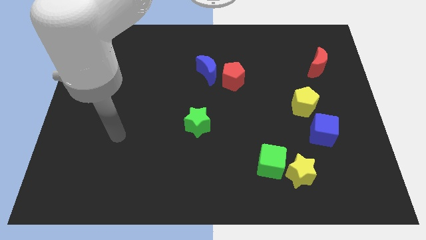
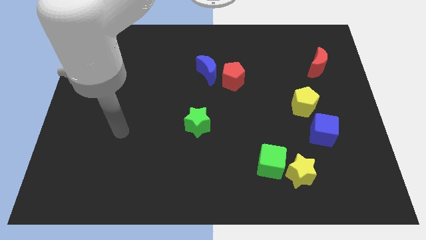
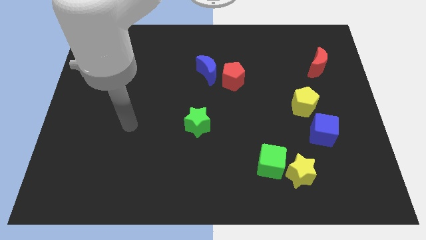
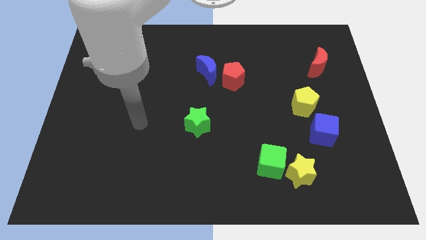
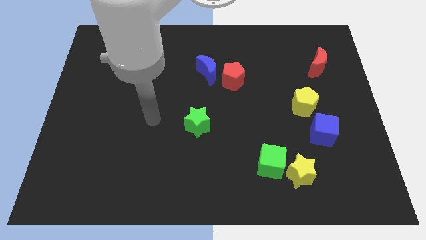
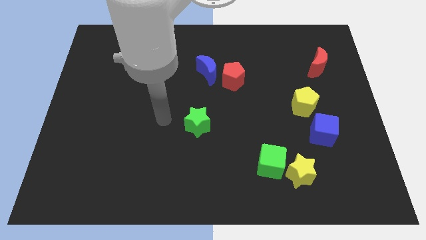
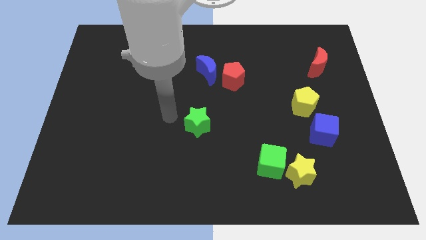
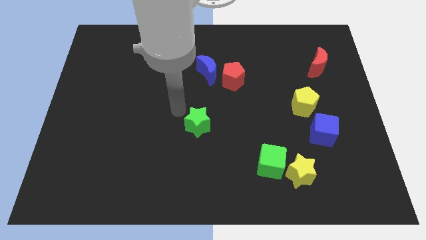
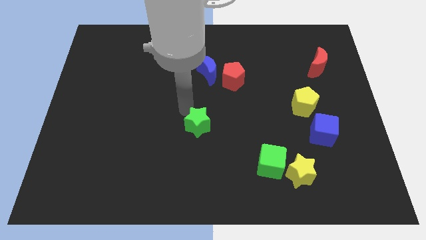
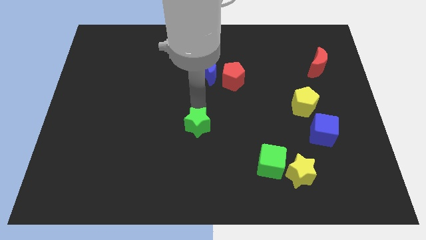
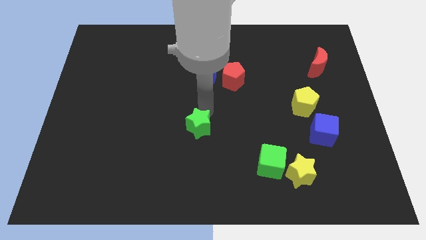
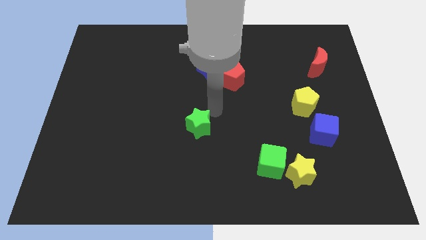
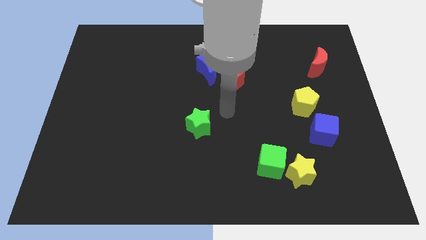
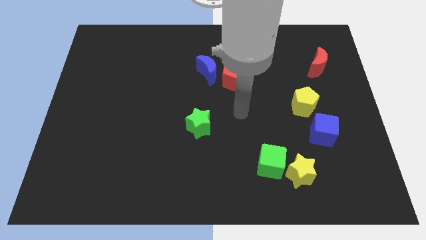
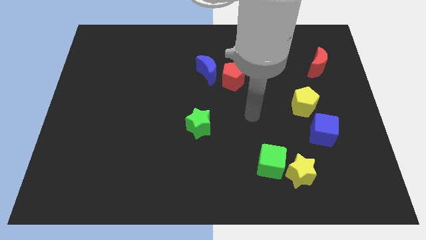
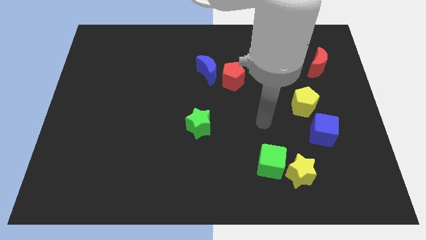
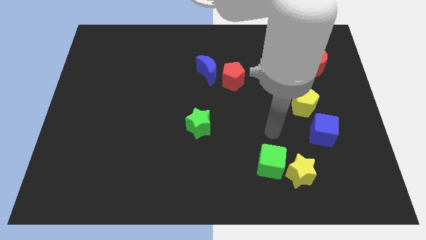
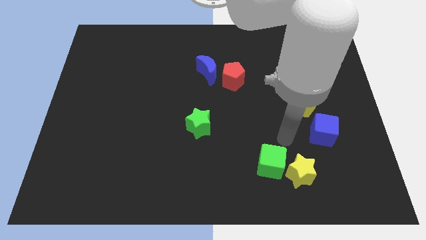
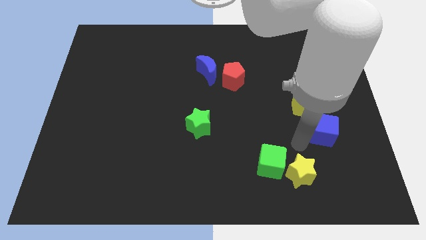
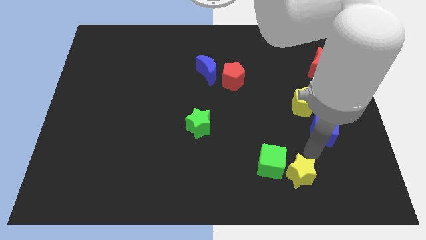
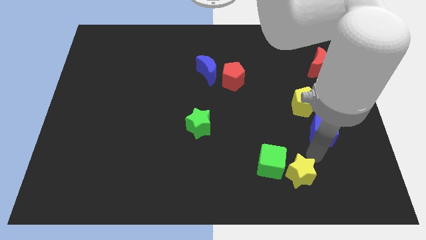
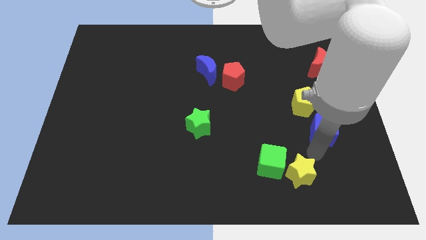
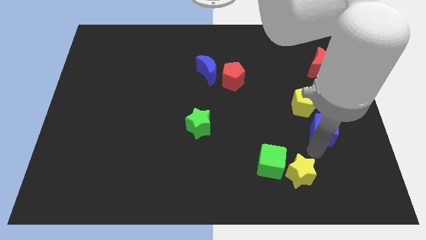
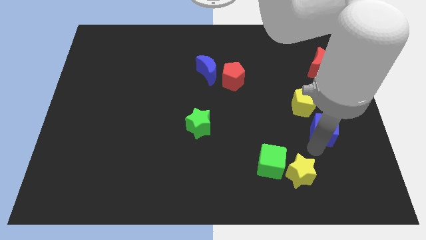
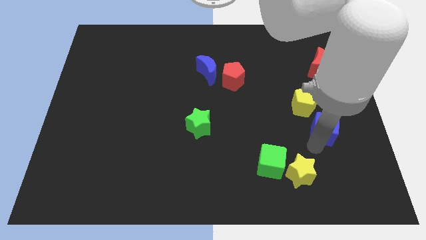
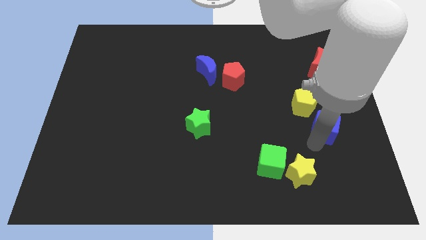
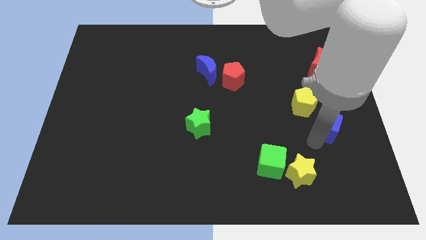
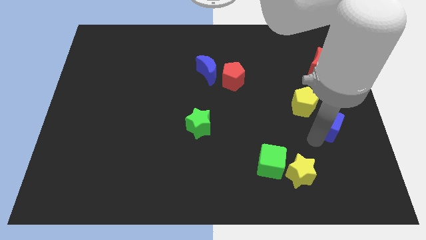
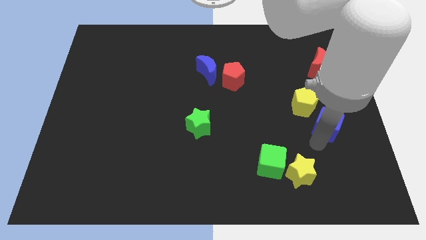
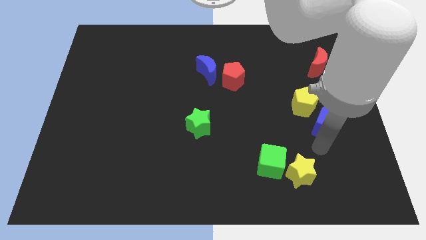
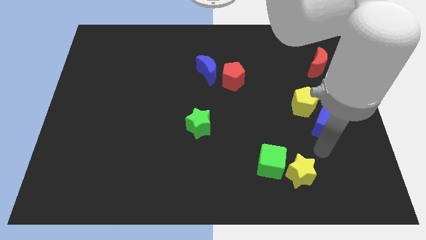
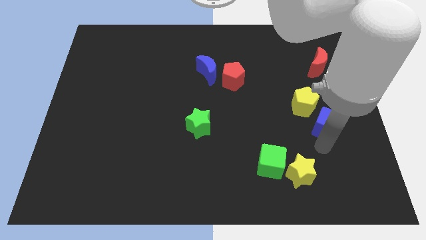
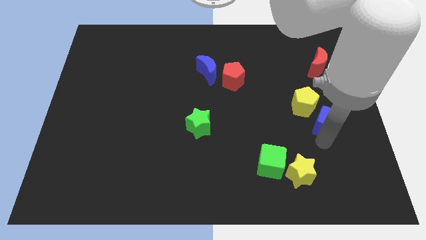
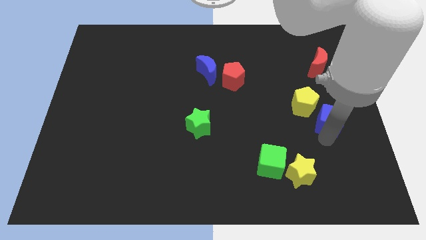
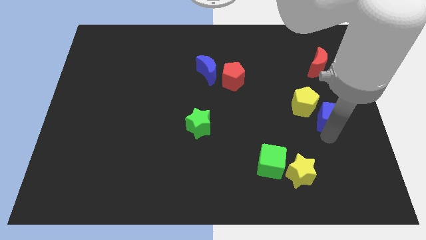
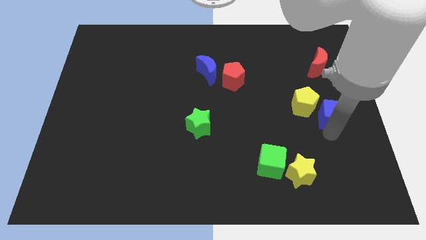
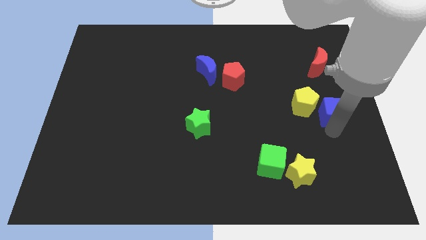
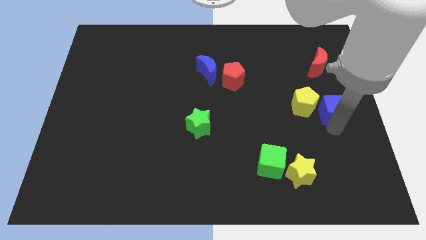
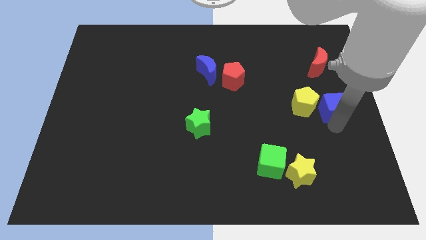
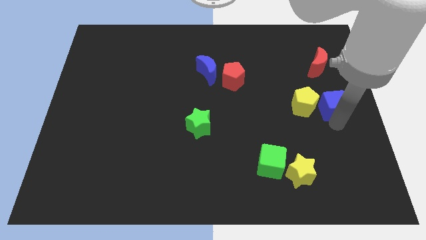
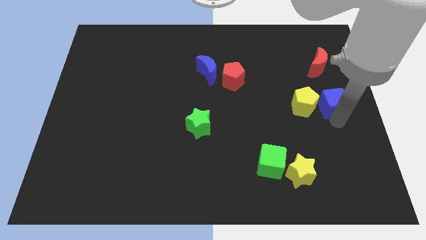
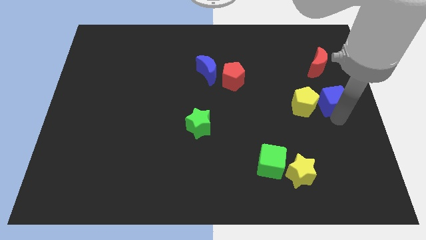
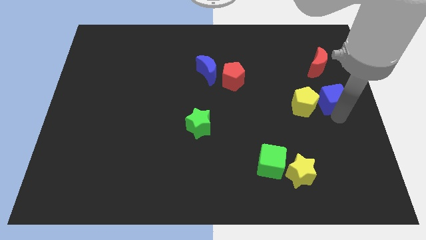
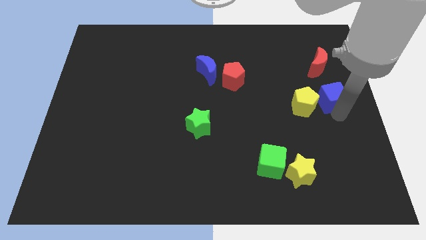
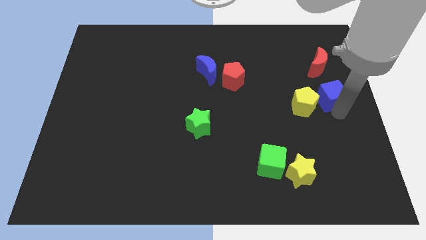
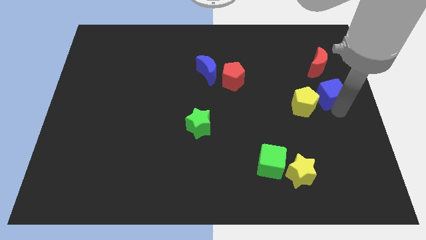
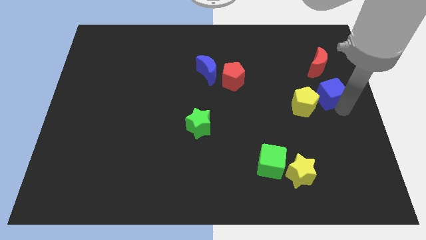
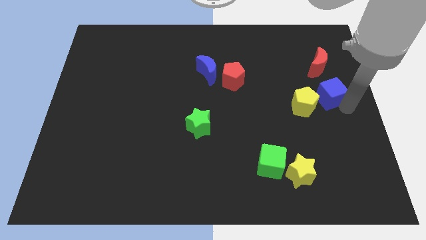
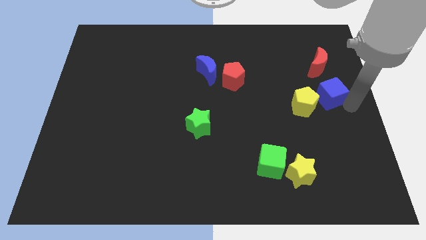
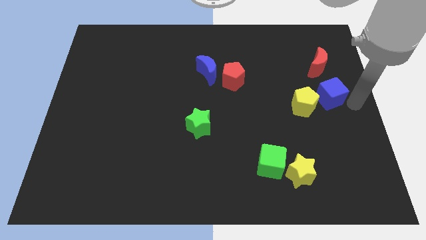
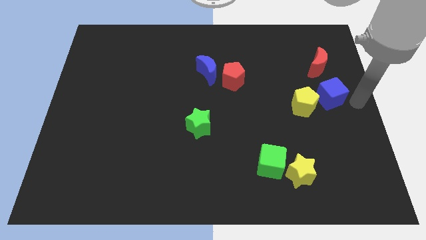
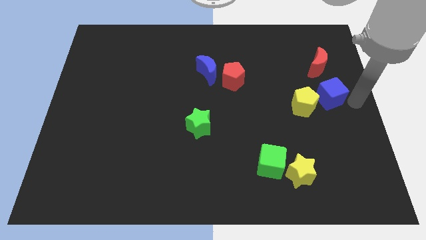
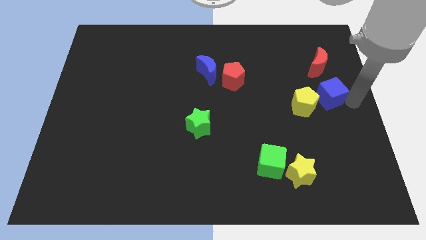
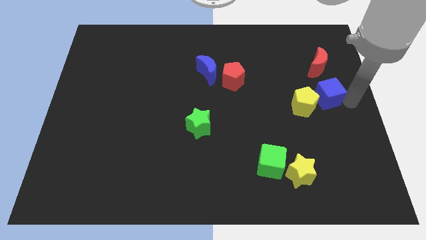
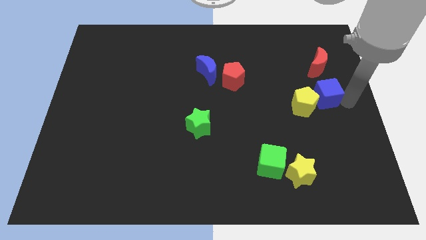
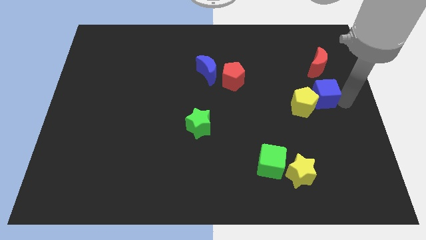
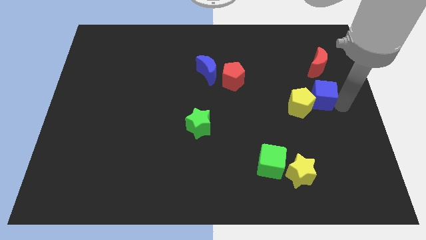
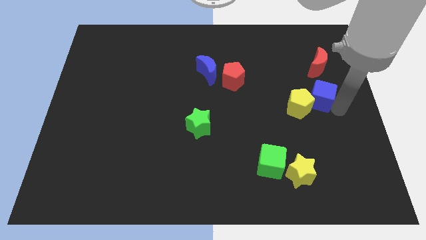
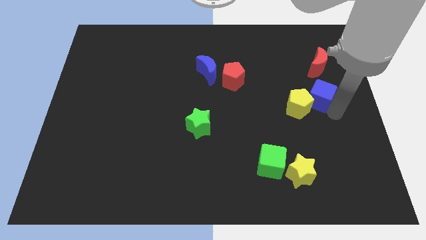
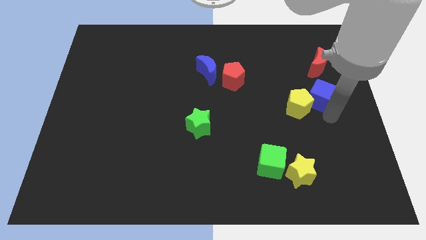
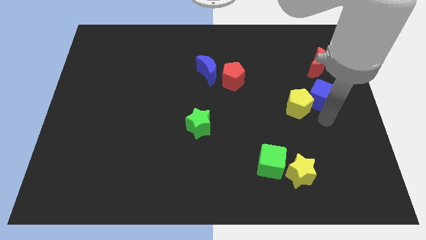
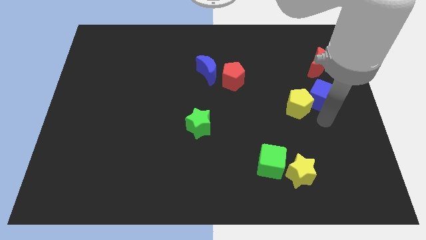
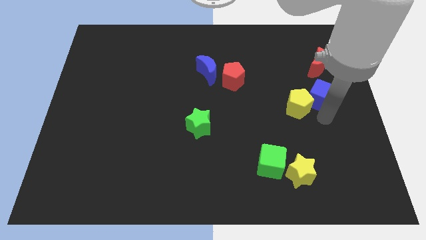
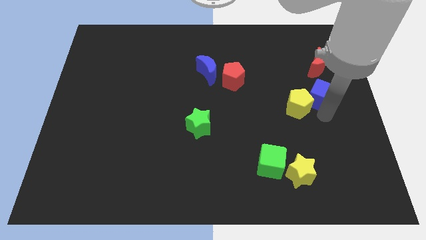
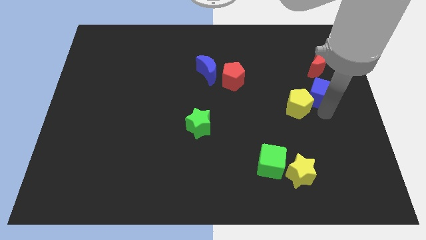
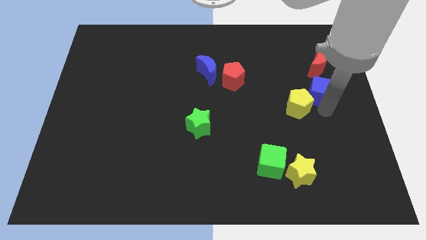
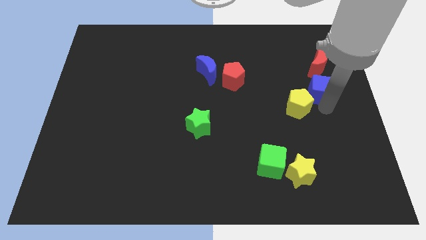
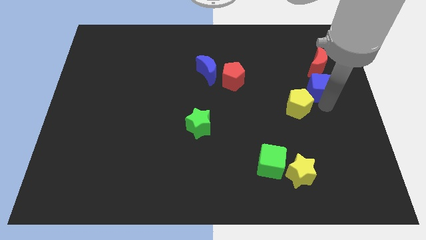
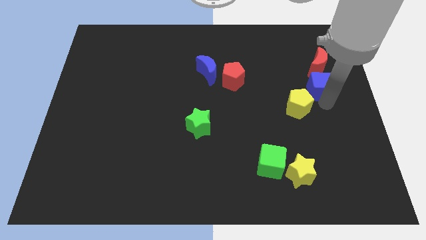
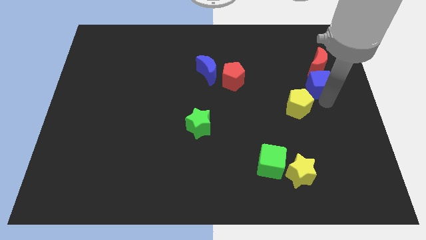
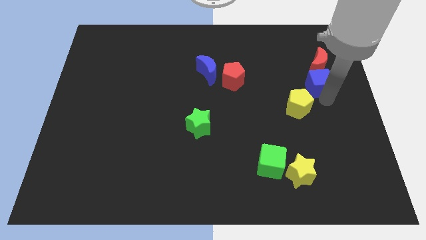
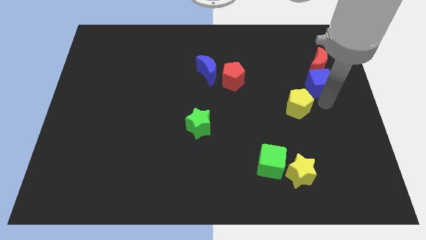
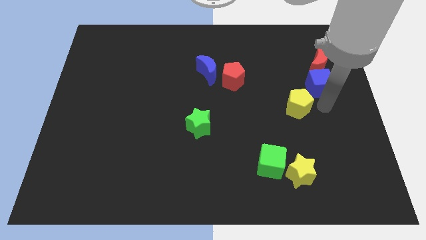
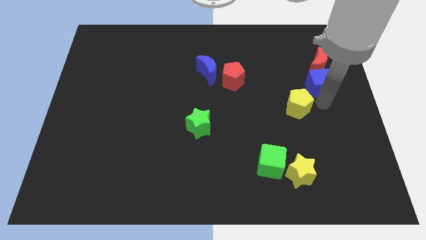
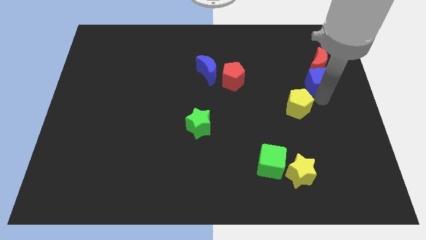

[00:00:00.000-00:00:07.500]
move the blue cube towards the red moon
